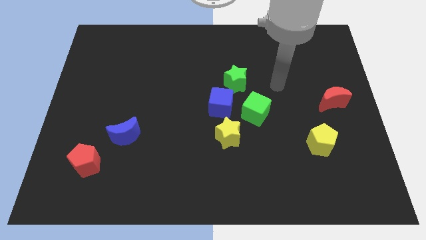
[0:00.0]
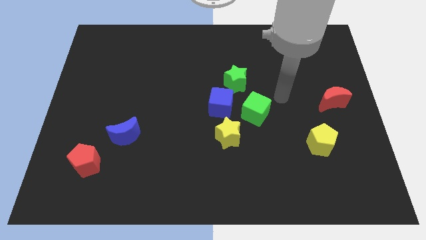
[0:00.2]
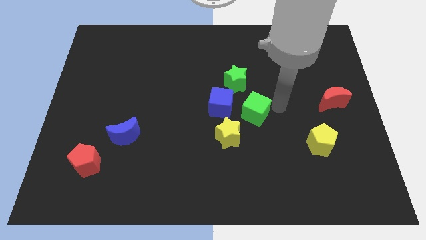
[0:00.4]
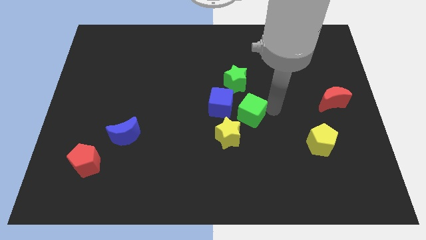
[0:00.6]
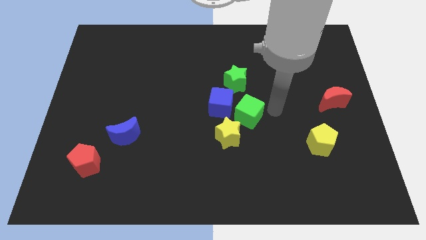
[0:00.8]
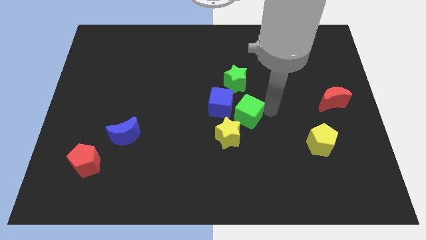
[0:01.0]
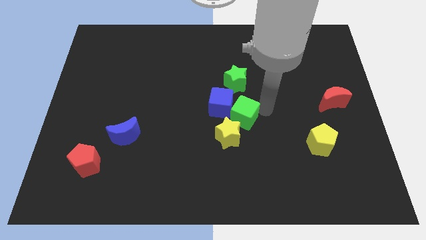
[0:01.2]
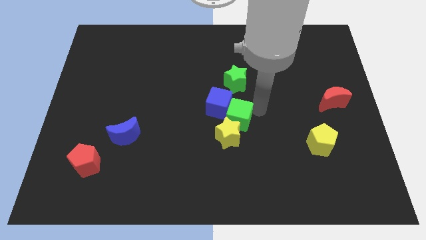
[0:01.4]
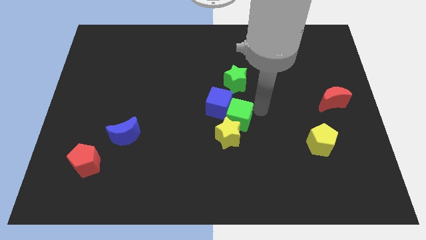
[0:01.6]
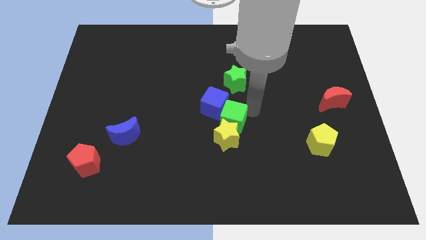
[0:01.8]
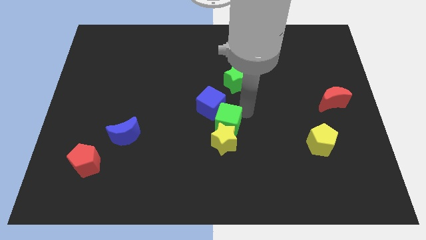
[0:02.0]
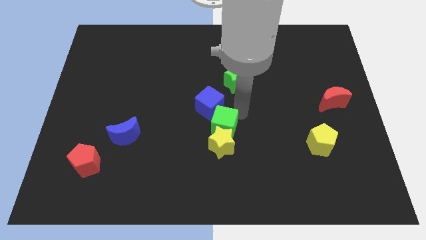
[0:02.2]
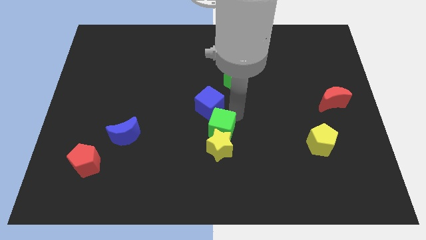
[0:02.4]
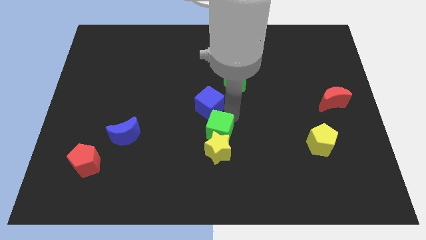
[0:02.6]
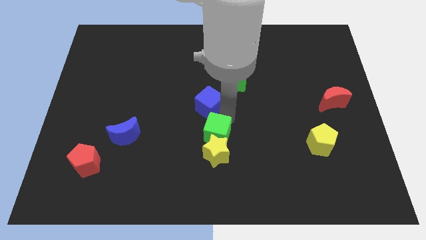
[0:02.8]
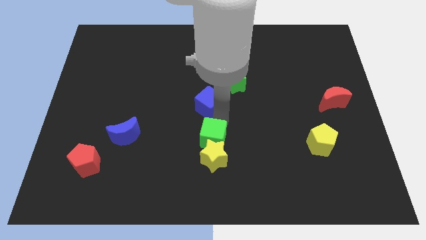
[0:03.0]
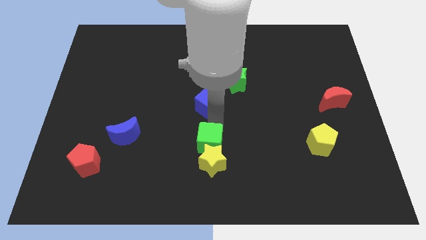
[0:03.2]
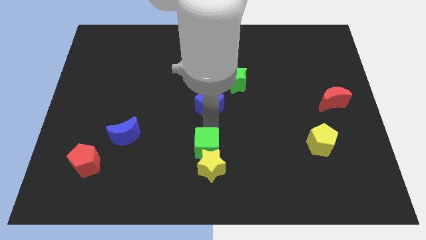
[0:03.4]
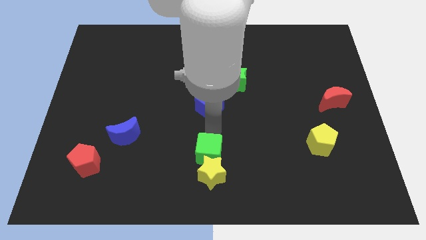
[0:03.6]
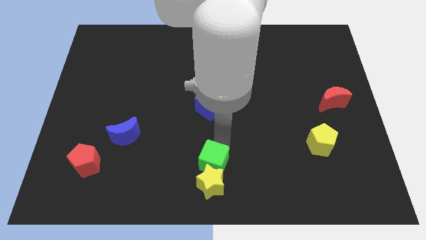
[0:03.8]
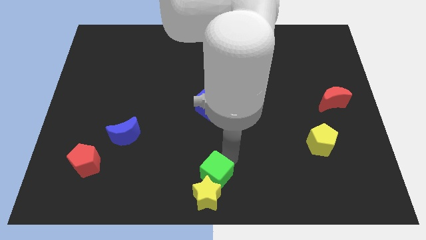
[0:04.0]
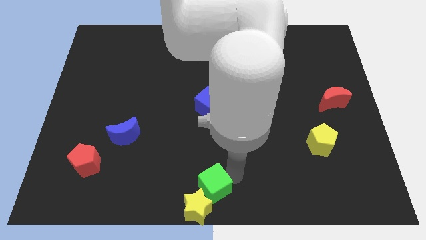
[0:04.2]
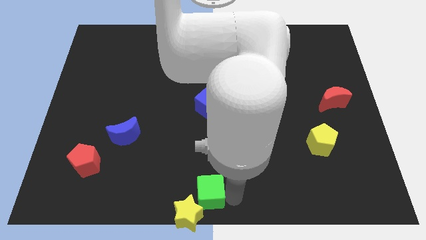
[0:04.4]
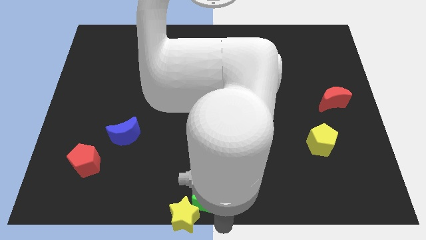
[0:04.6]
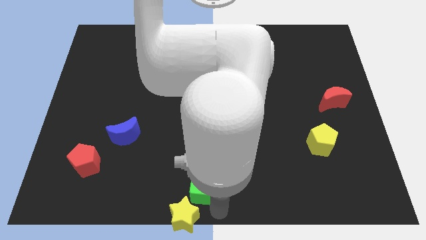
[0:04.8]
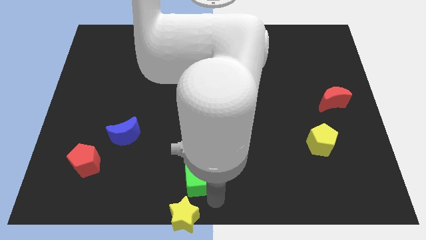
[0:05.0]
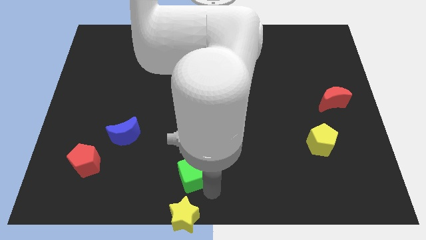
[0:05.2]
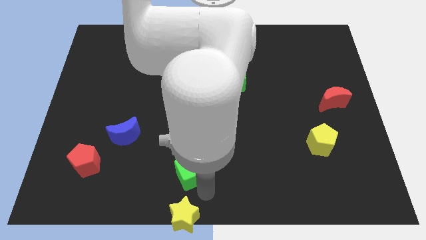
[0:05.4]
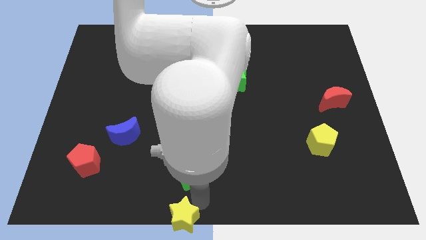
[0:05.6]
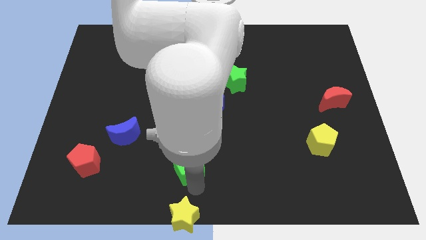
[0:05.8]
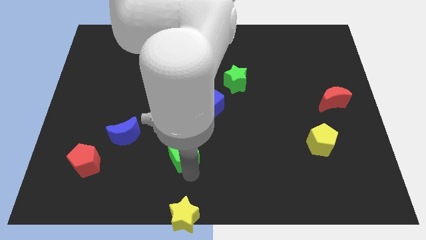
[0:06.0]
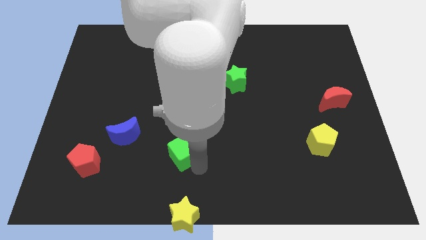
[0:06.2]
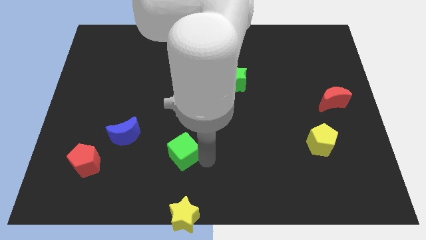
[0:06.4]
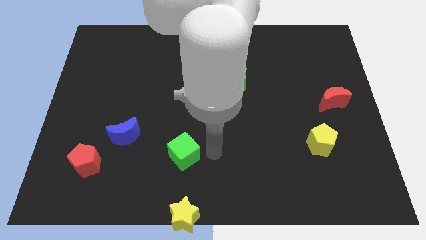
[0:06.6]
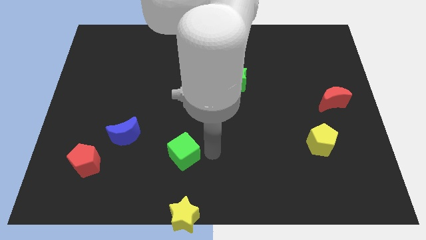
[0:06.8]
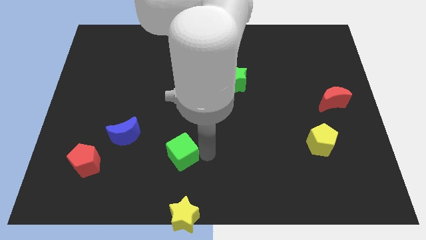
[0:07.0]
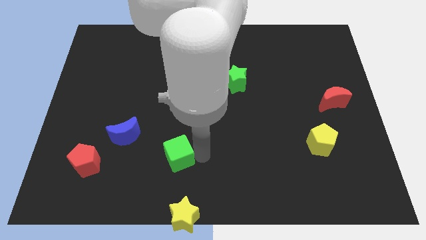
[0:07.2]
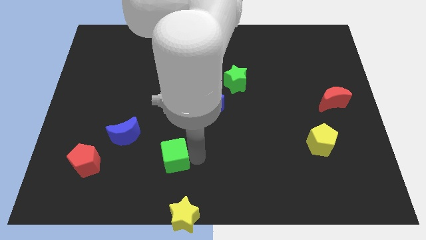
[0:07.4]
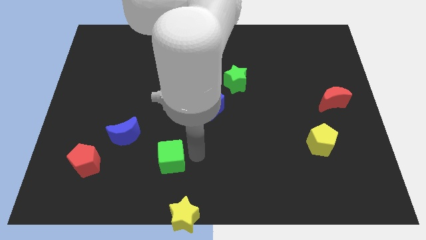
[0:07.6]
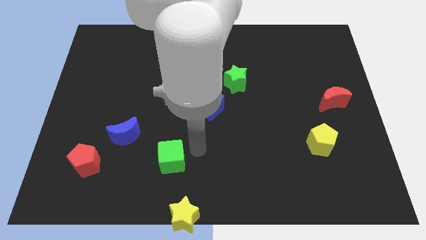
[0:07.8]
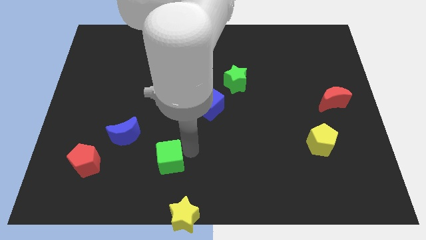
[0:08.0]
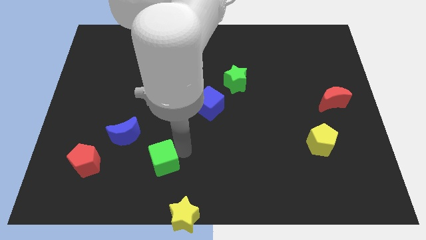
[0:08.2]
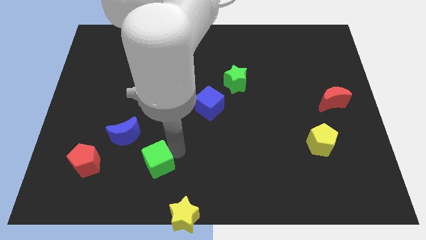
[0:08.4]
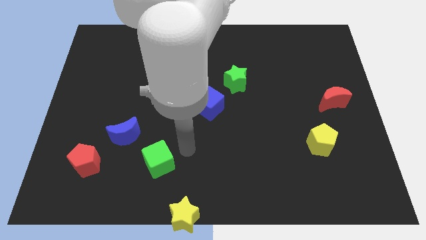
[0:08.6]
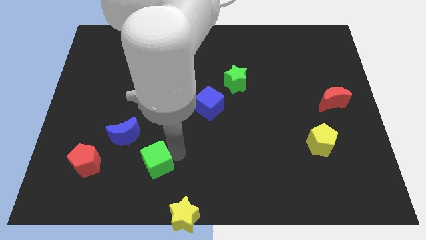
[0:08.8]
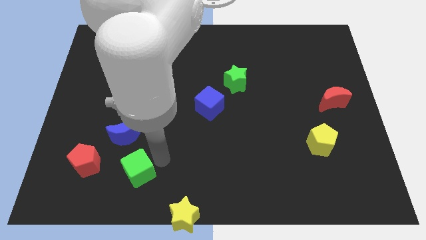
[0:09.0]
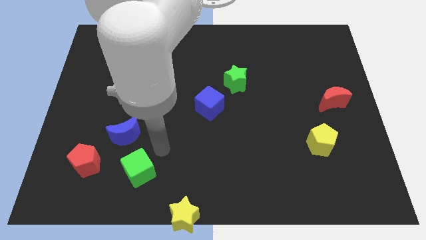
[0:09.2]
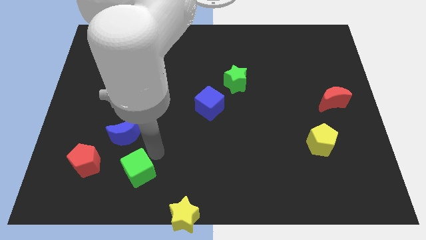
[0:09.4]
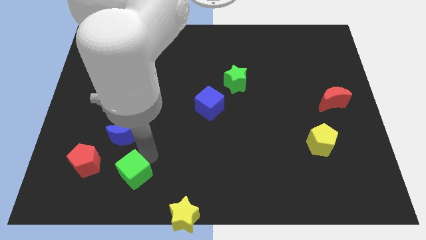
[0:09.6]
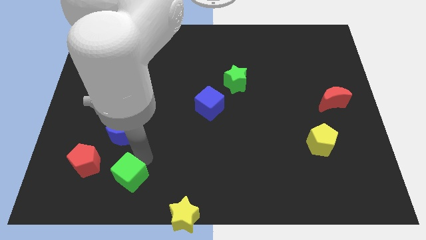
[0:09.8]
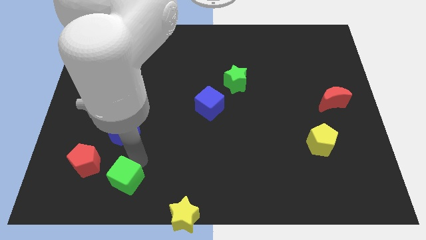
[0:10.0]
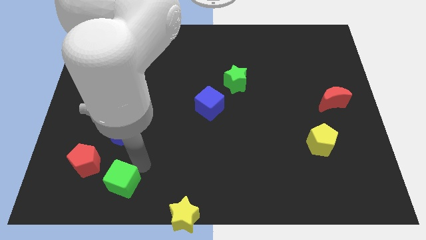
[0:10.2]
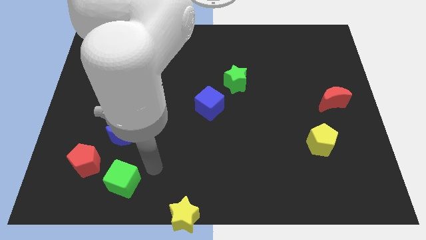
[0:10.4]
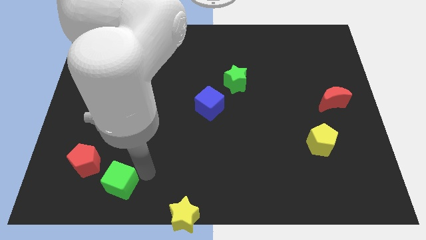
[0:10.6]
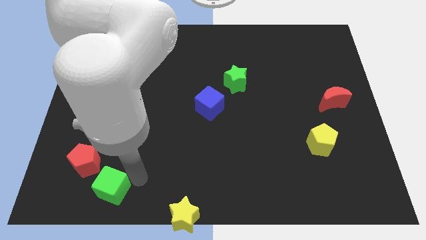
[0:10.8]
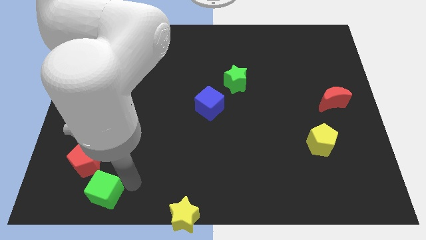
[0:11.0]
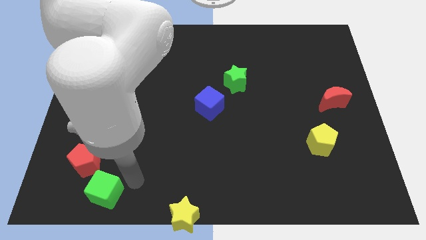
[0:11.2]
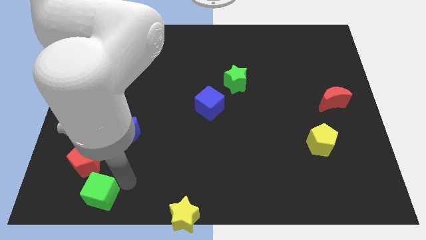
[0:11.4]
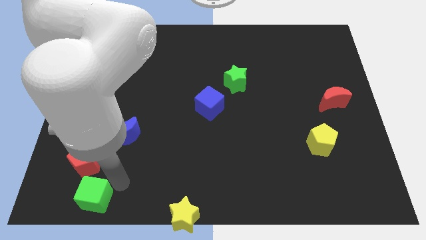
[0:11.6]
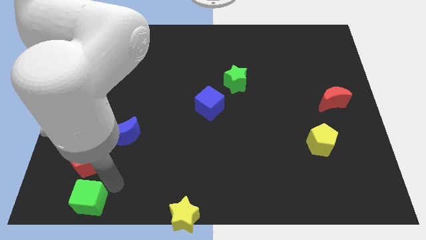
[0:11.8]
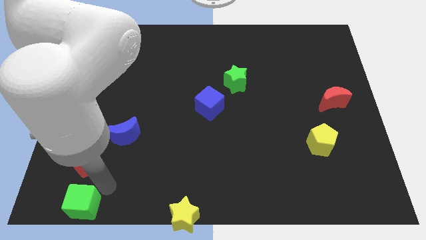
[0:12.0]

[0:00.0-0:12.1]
move the green cube to the bottom left corner
